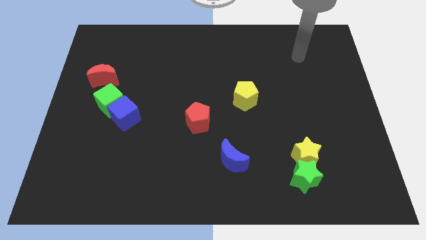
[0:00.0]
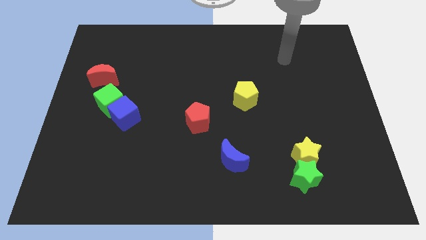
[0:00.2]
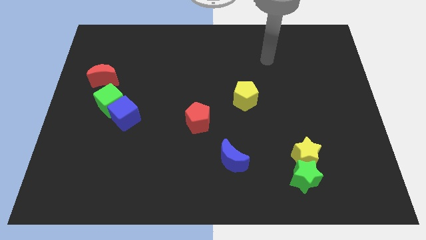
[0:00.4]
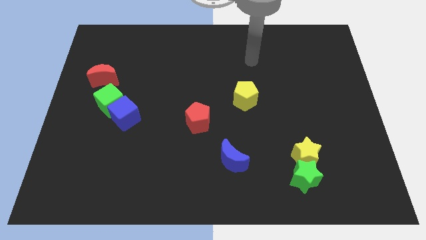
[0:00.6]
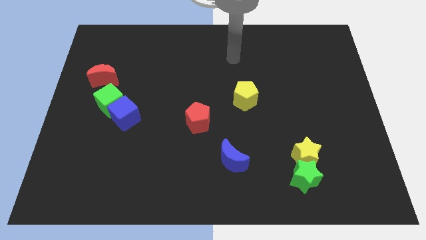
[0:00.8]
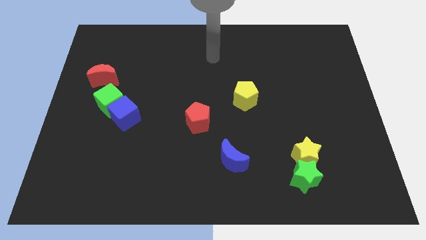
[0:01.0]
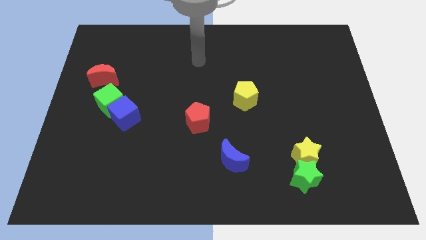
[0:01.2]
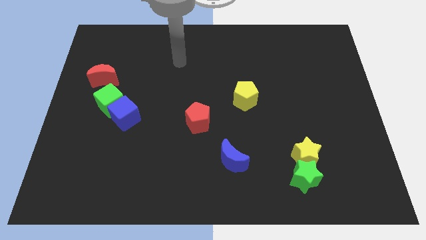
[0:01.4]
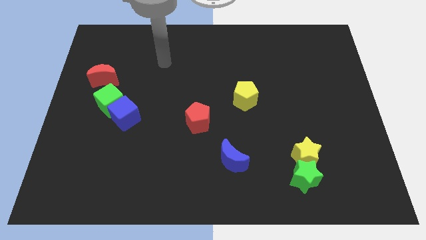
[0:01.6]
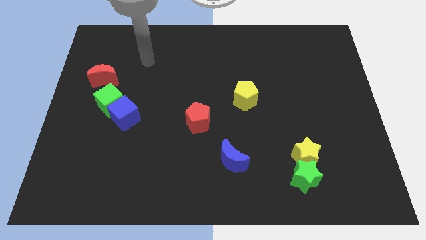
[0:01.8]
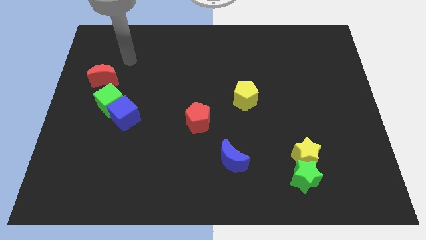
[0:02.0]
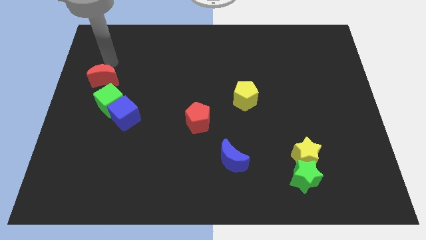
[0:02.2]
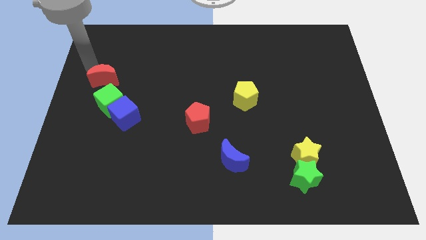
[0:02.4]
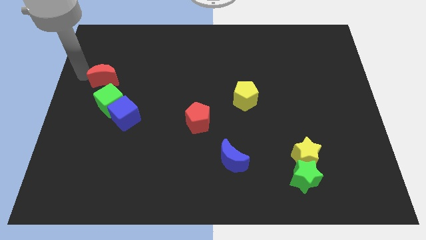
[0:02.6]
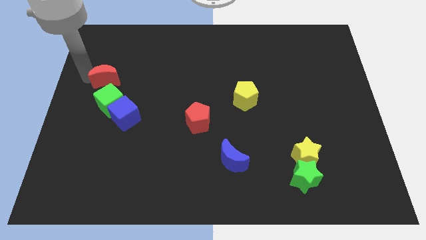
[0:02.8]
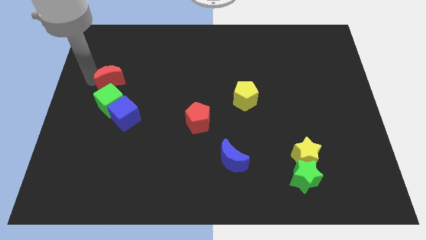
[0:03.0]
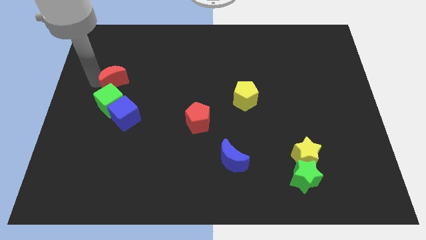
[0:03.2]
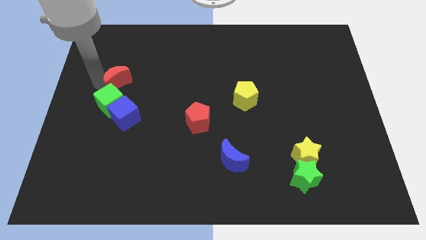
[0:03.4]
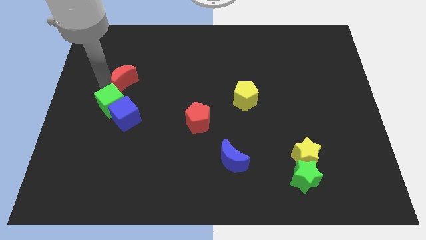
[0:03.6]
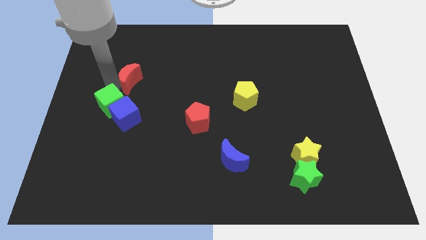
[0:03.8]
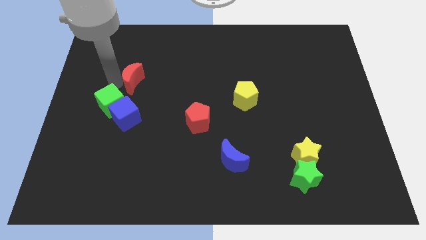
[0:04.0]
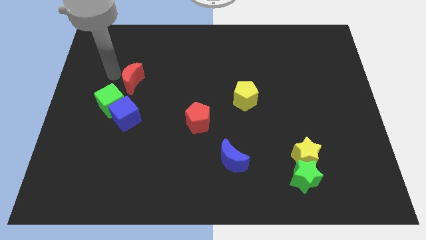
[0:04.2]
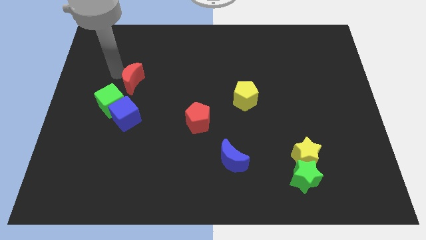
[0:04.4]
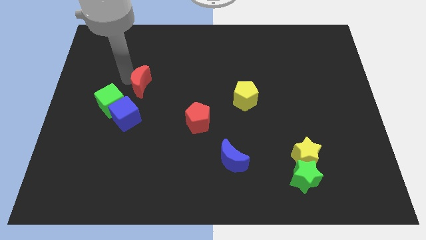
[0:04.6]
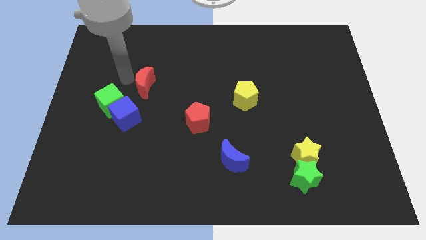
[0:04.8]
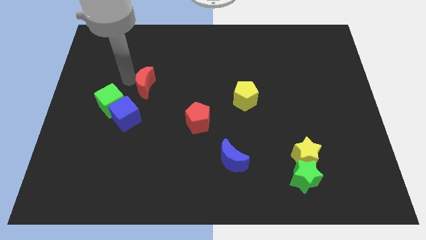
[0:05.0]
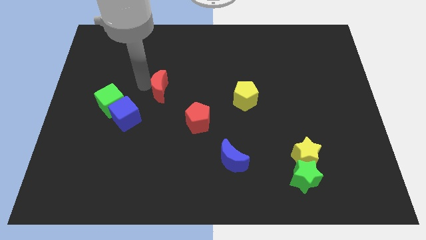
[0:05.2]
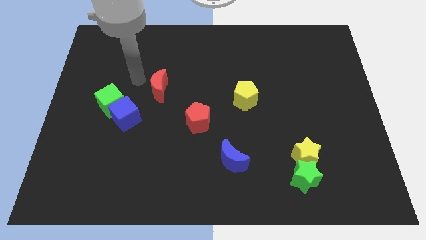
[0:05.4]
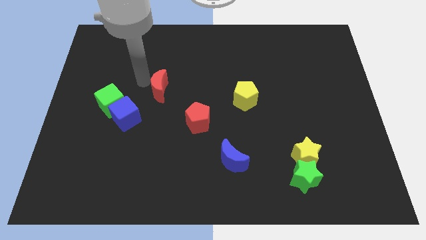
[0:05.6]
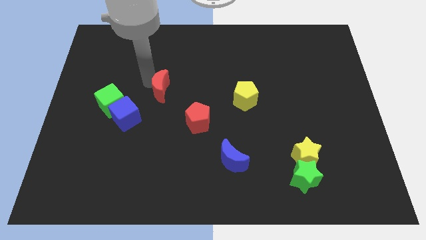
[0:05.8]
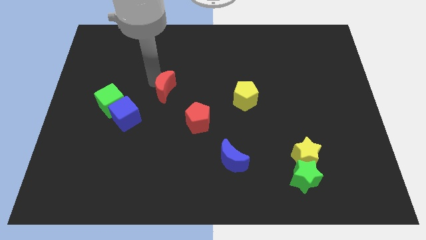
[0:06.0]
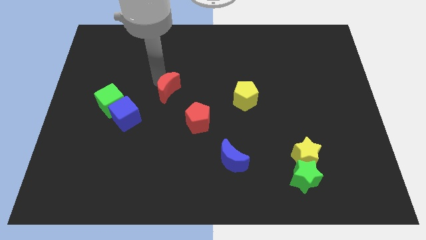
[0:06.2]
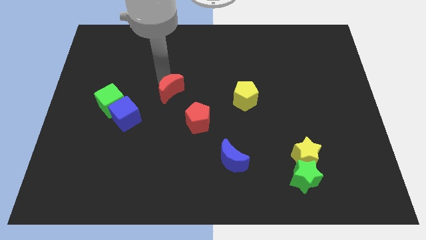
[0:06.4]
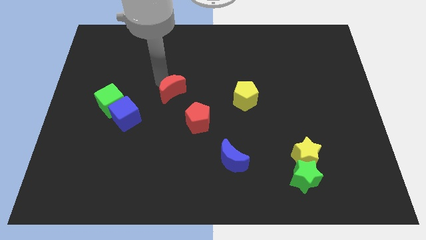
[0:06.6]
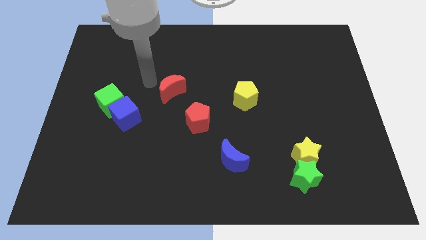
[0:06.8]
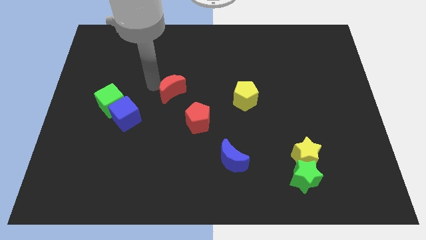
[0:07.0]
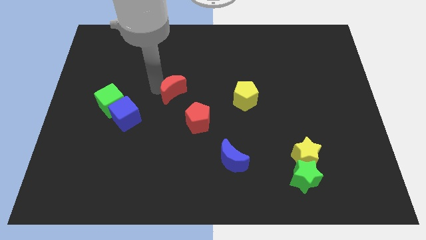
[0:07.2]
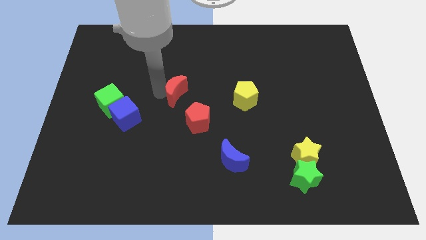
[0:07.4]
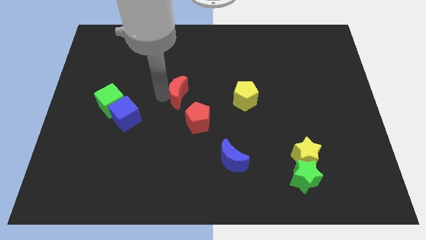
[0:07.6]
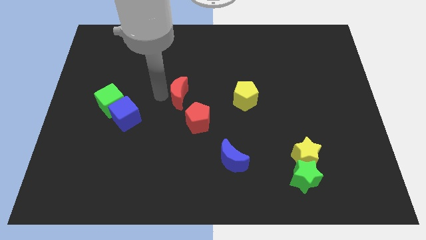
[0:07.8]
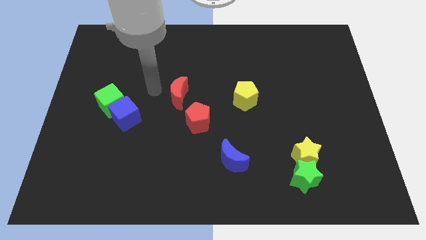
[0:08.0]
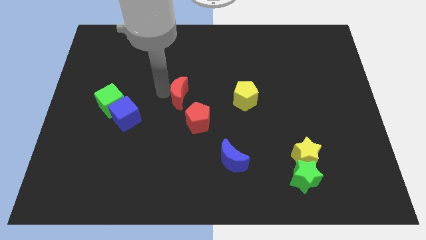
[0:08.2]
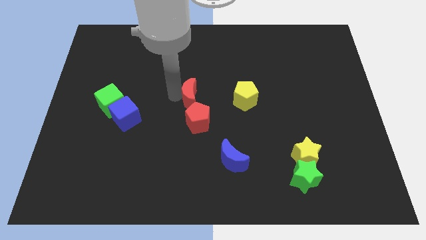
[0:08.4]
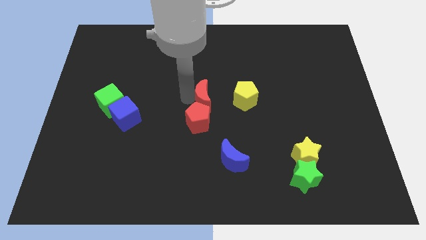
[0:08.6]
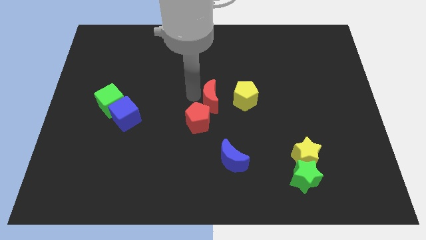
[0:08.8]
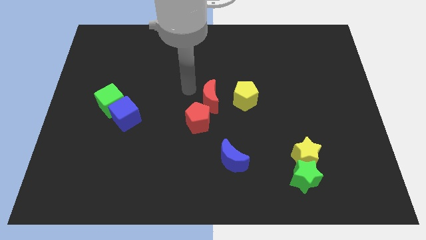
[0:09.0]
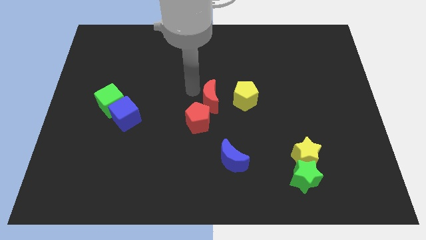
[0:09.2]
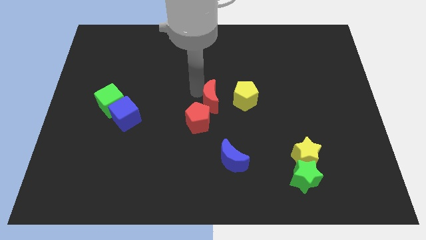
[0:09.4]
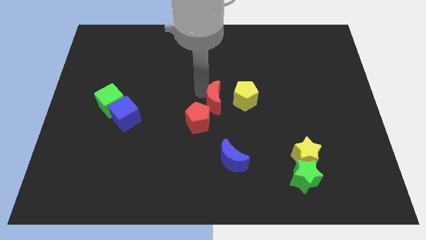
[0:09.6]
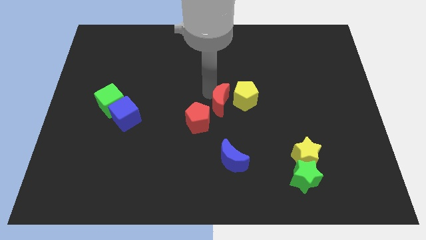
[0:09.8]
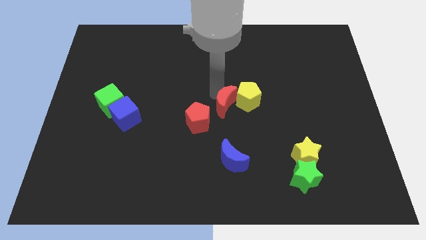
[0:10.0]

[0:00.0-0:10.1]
move the red moon right of the red pentagon

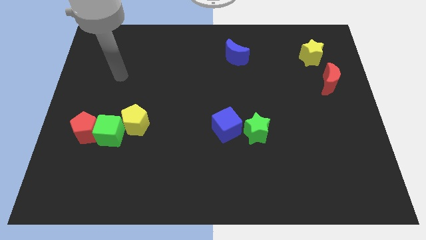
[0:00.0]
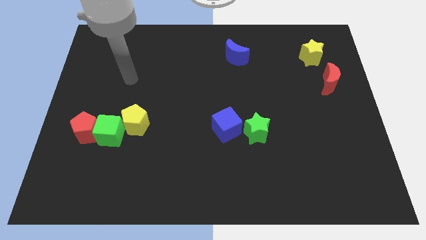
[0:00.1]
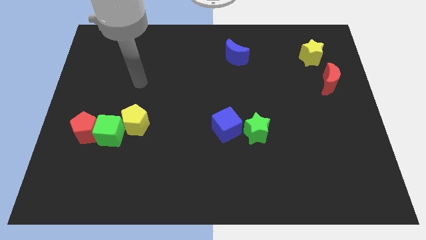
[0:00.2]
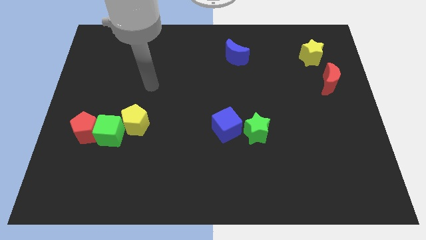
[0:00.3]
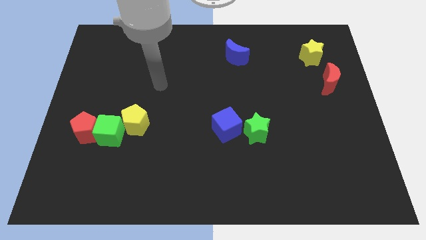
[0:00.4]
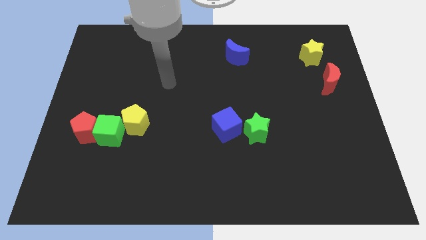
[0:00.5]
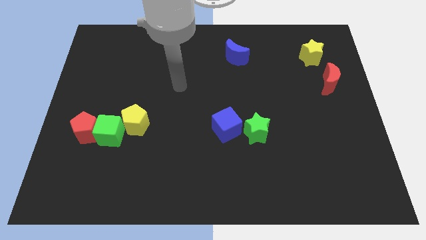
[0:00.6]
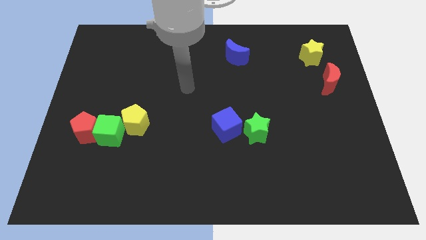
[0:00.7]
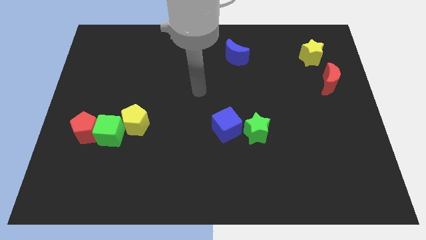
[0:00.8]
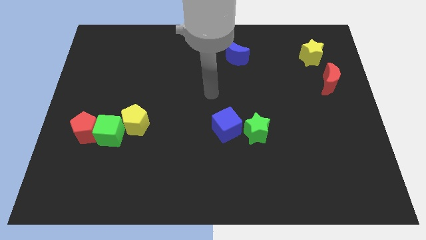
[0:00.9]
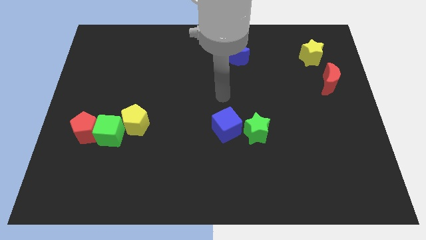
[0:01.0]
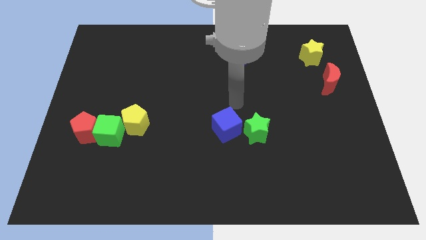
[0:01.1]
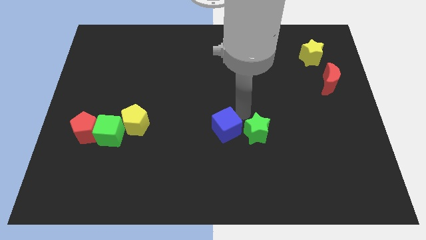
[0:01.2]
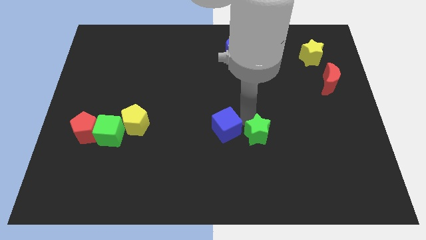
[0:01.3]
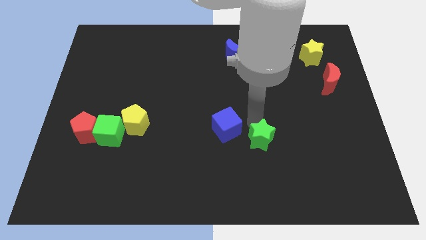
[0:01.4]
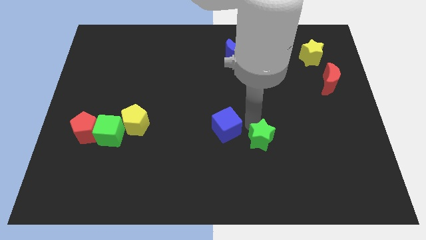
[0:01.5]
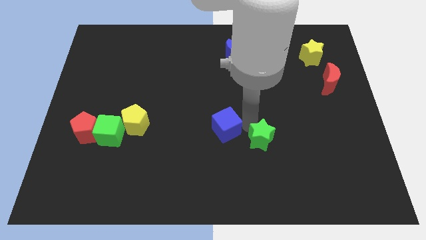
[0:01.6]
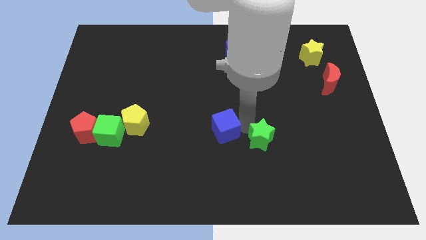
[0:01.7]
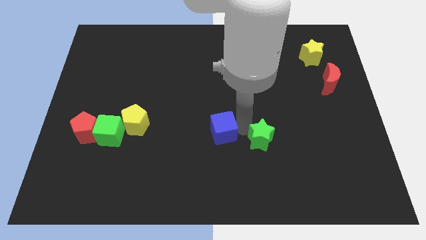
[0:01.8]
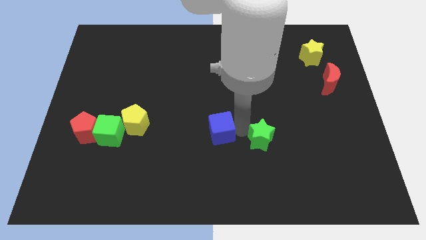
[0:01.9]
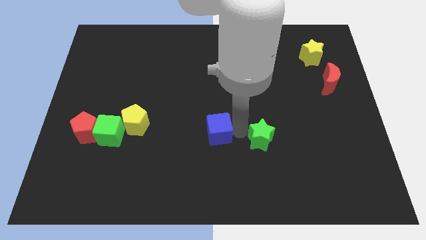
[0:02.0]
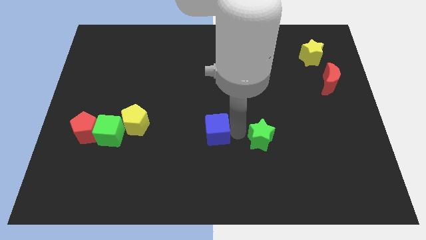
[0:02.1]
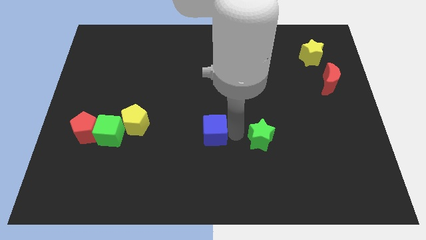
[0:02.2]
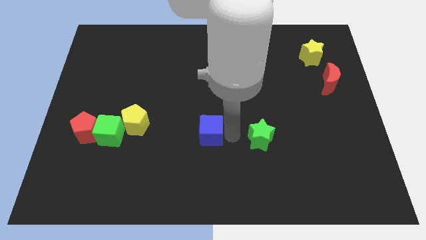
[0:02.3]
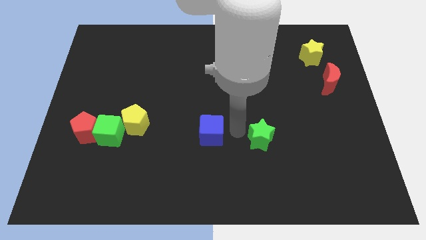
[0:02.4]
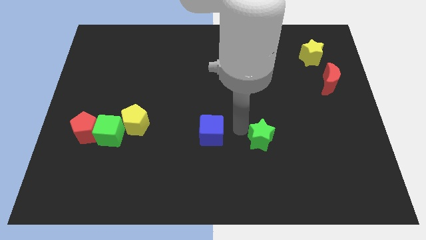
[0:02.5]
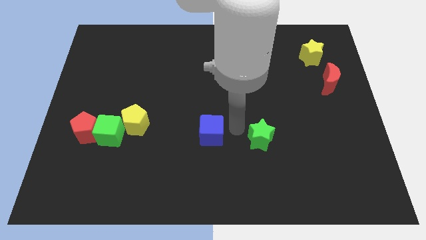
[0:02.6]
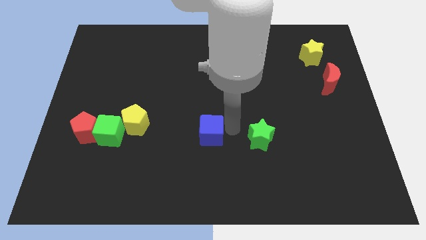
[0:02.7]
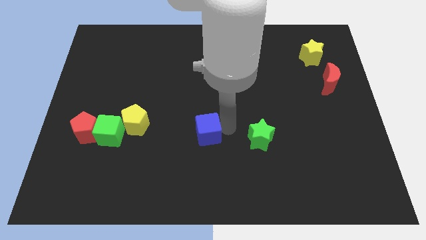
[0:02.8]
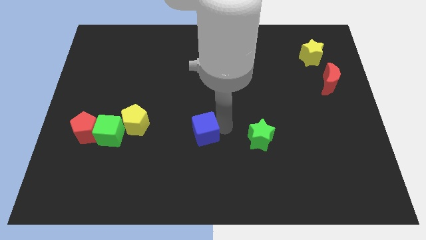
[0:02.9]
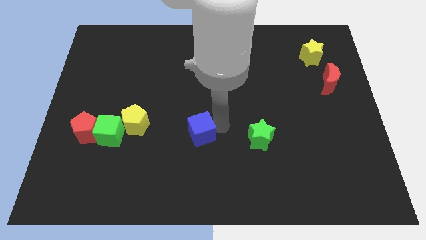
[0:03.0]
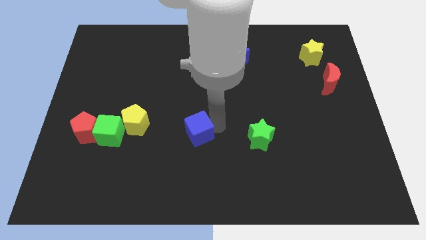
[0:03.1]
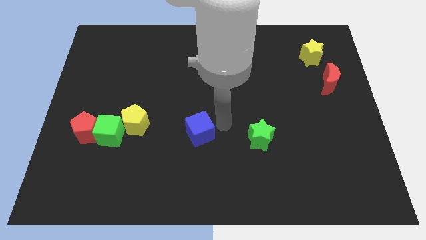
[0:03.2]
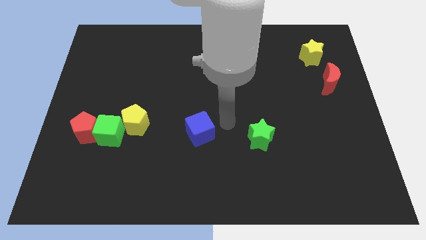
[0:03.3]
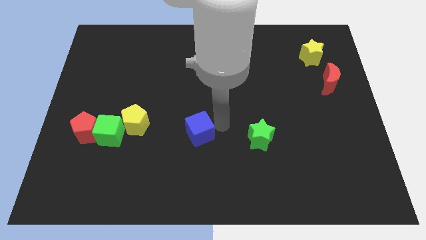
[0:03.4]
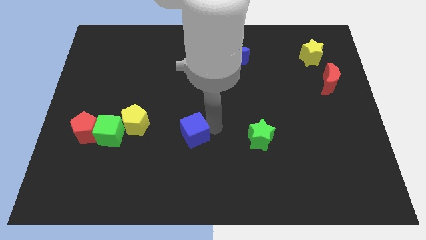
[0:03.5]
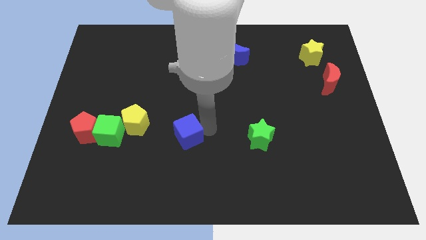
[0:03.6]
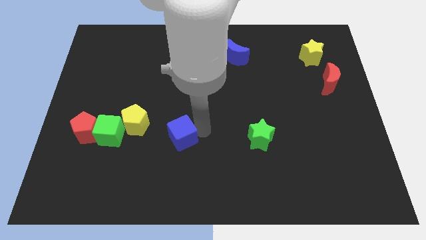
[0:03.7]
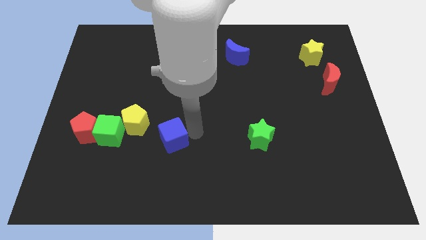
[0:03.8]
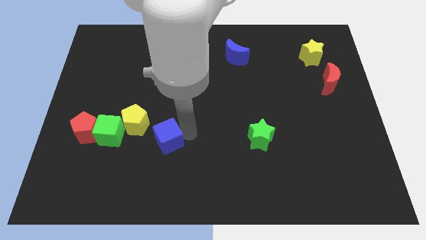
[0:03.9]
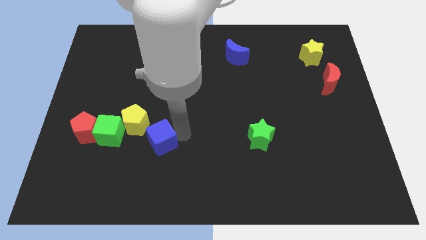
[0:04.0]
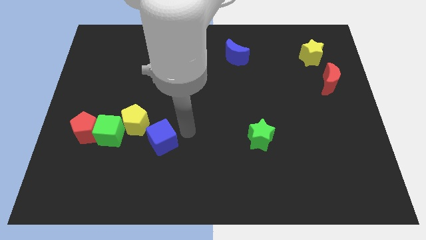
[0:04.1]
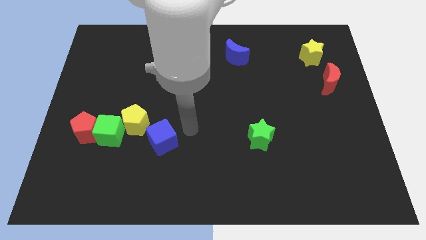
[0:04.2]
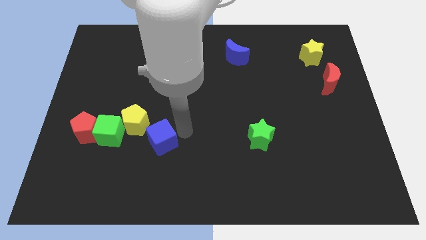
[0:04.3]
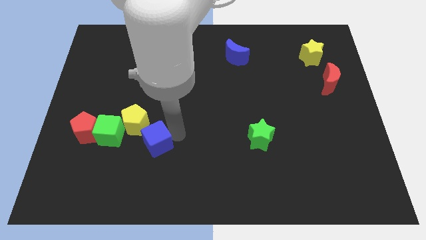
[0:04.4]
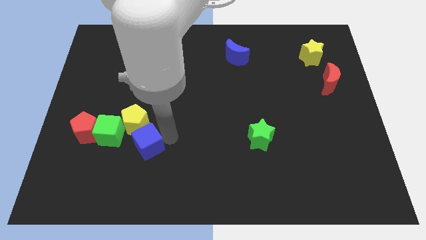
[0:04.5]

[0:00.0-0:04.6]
move the blue cube to the bottom right of the green cube
